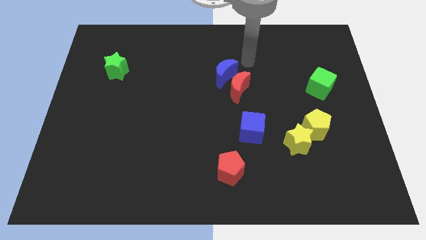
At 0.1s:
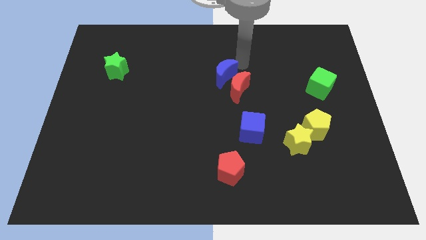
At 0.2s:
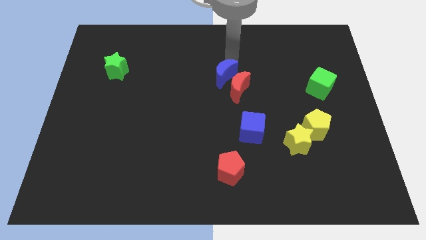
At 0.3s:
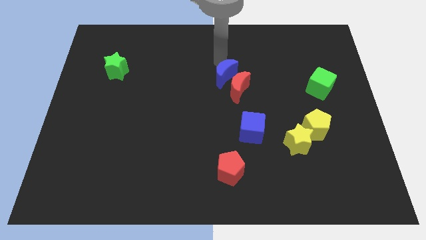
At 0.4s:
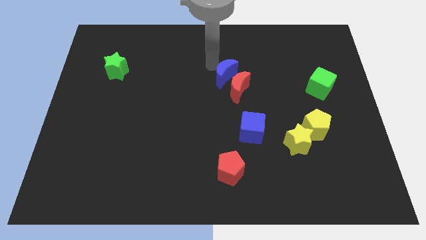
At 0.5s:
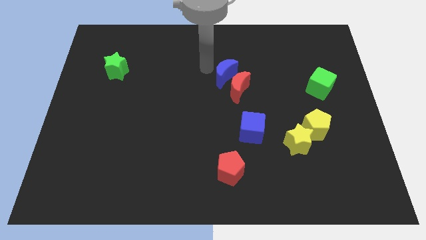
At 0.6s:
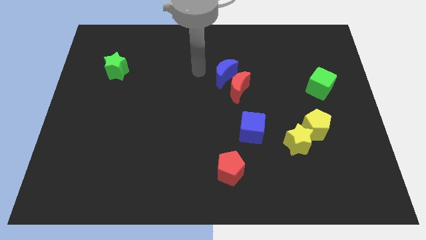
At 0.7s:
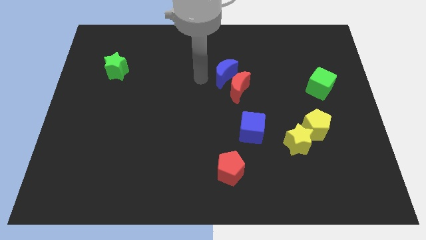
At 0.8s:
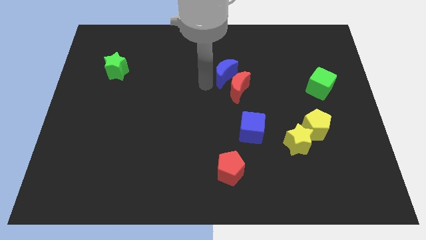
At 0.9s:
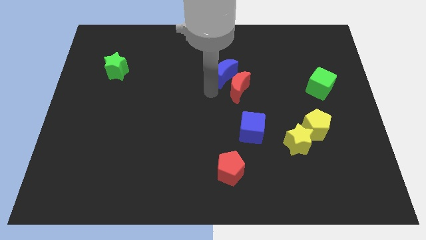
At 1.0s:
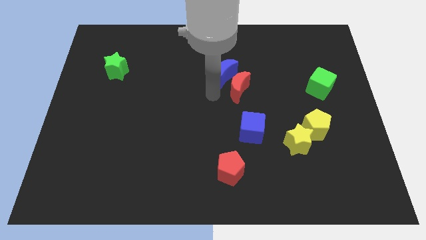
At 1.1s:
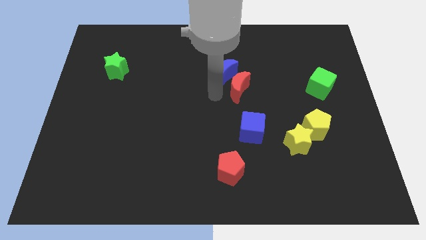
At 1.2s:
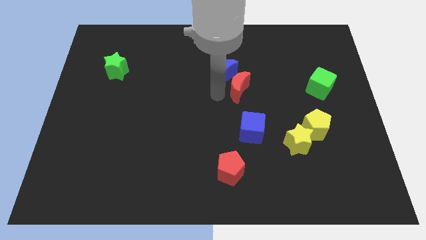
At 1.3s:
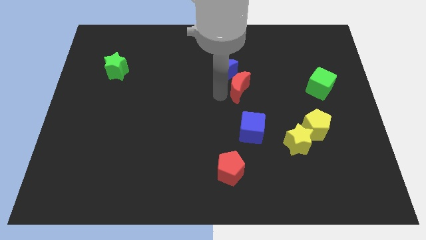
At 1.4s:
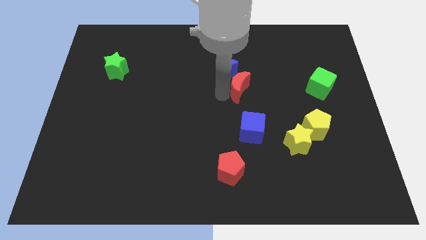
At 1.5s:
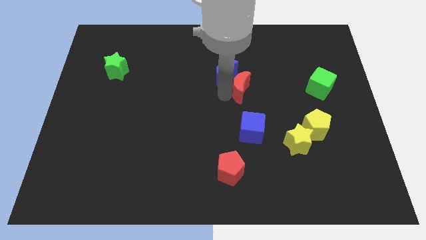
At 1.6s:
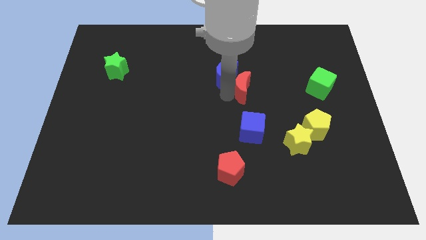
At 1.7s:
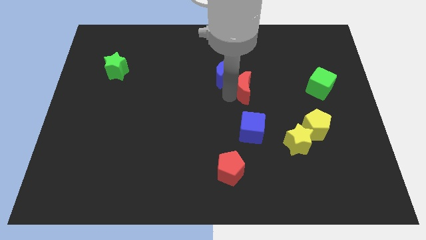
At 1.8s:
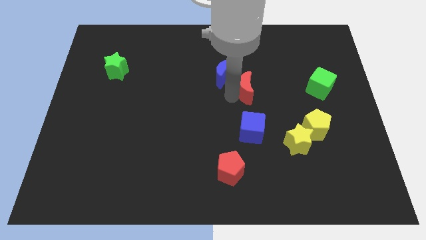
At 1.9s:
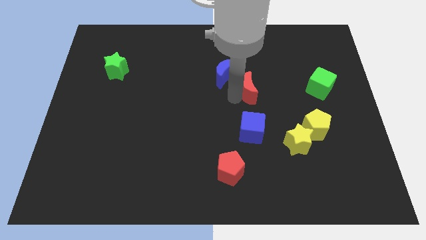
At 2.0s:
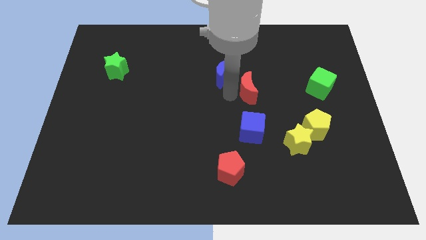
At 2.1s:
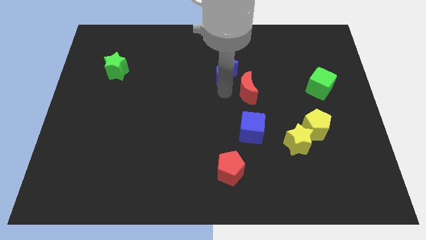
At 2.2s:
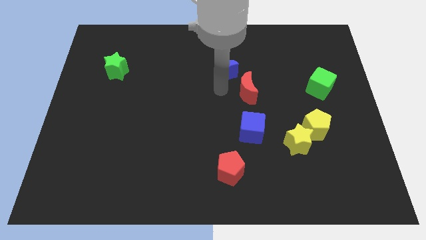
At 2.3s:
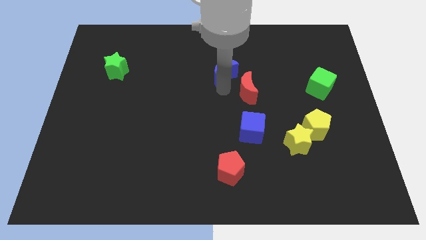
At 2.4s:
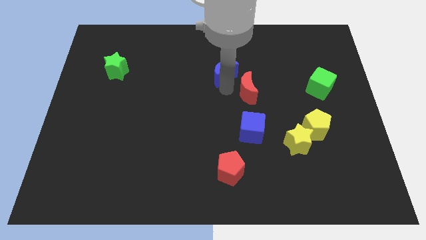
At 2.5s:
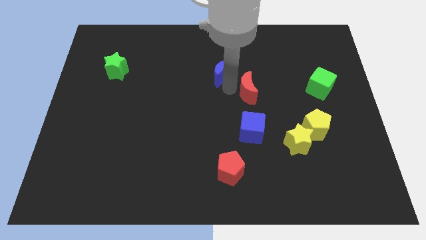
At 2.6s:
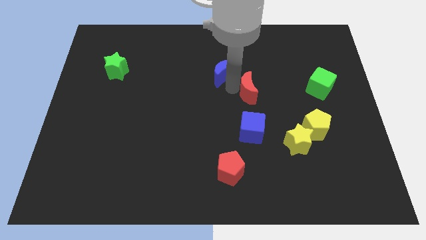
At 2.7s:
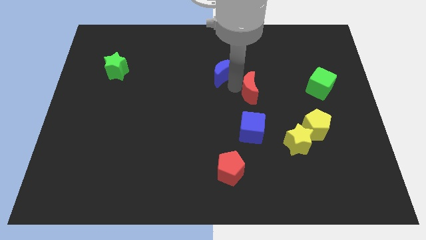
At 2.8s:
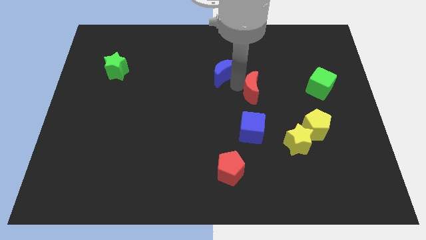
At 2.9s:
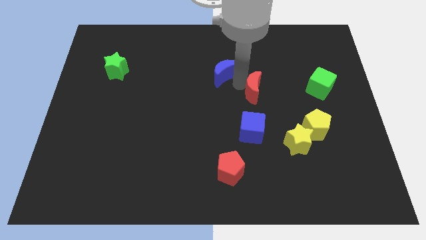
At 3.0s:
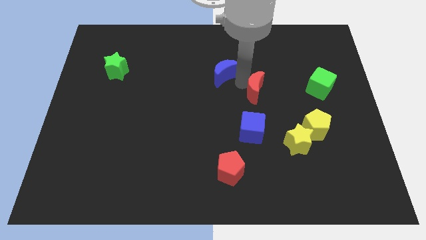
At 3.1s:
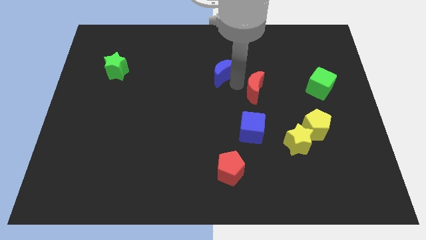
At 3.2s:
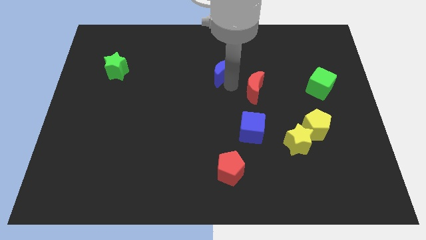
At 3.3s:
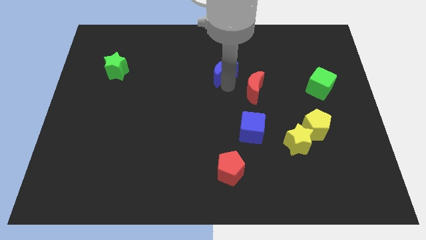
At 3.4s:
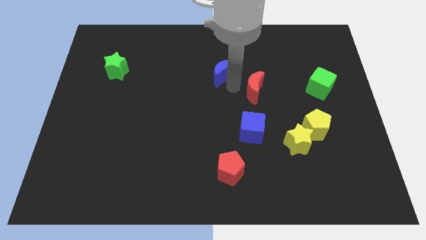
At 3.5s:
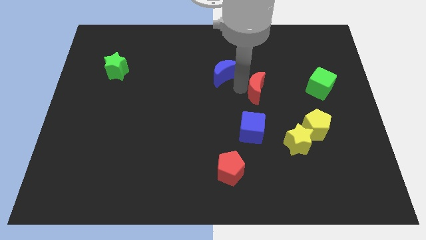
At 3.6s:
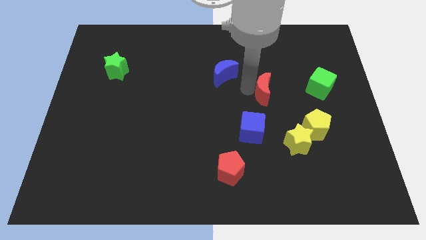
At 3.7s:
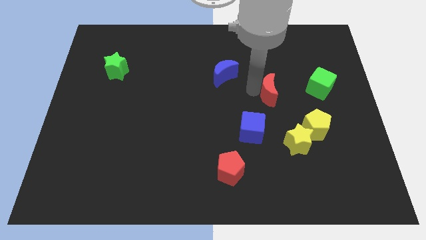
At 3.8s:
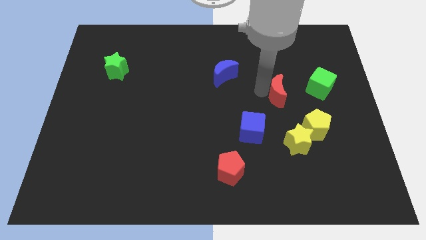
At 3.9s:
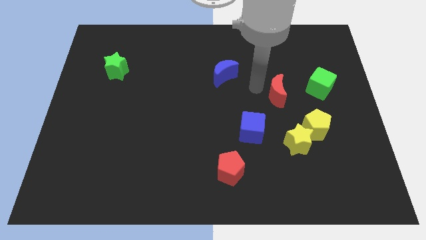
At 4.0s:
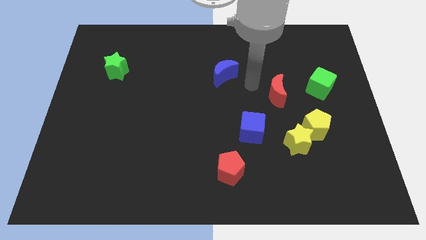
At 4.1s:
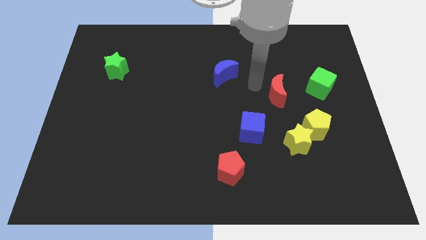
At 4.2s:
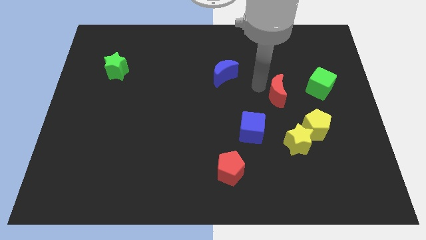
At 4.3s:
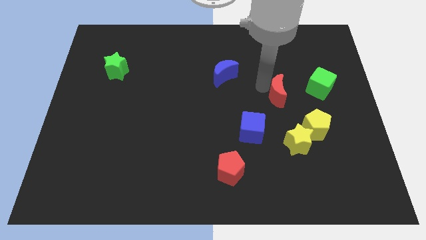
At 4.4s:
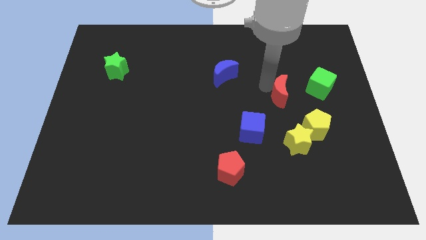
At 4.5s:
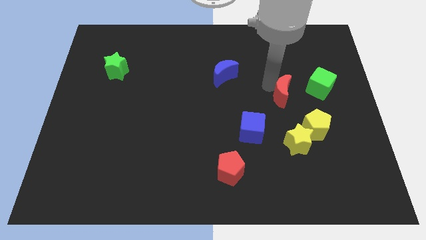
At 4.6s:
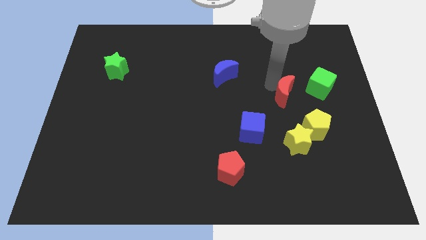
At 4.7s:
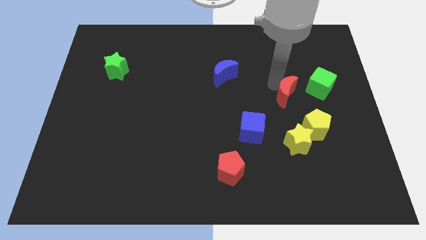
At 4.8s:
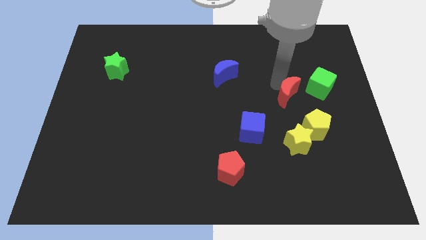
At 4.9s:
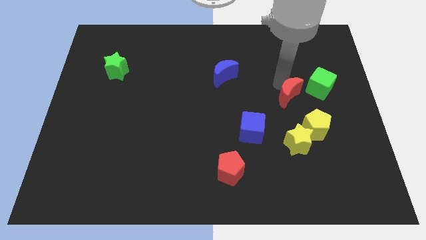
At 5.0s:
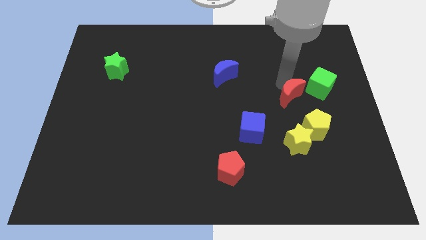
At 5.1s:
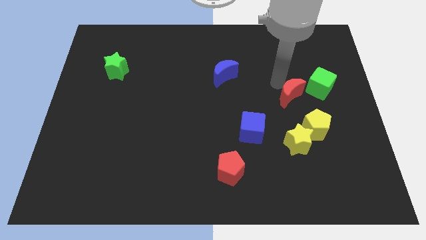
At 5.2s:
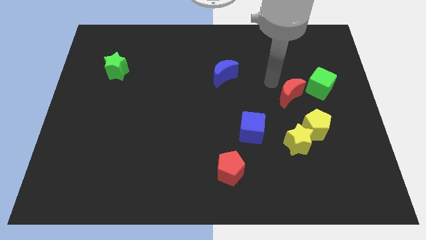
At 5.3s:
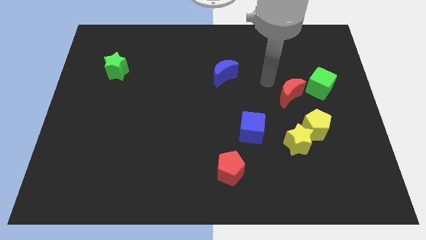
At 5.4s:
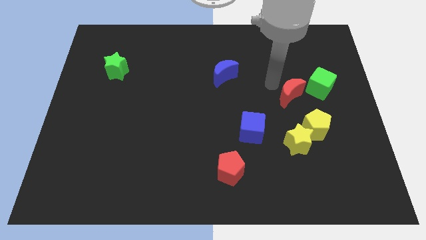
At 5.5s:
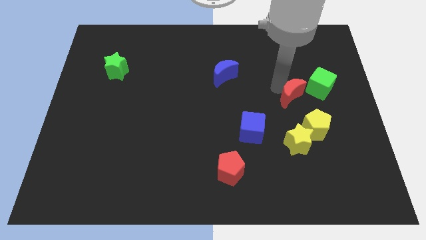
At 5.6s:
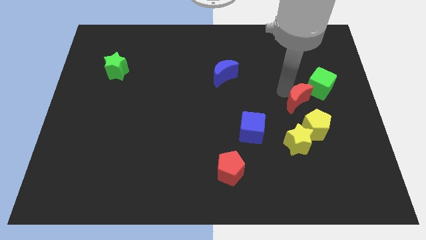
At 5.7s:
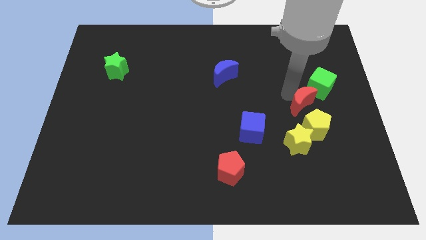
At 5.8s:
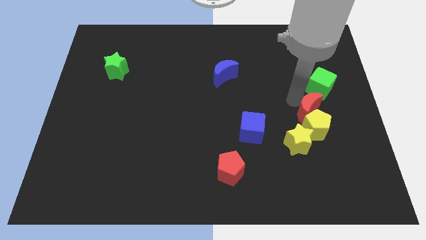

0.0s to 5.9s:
put the red moon to the top right side of the yellow pentagon

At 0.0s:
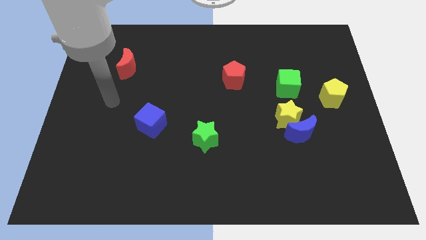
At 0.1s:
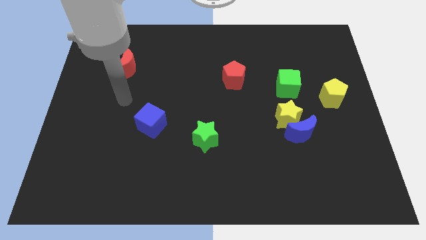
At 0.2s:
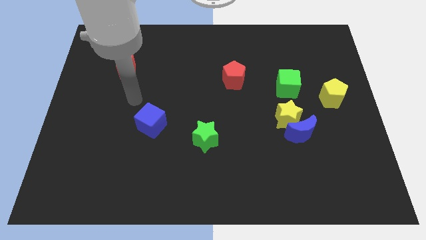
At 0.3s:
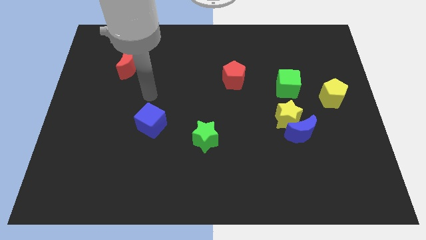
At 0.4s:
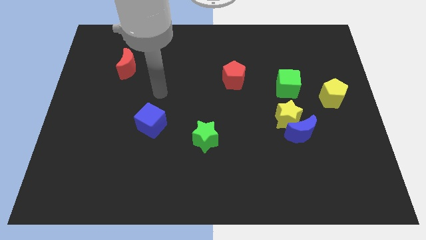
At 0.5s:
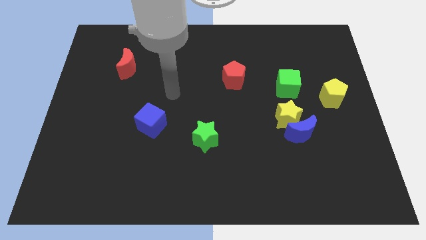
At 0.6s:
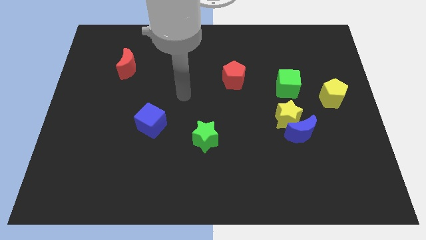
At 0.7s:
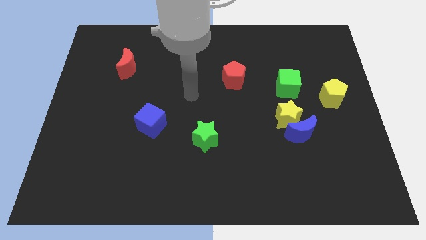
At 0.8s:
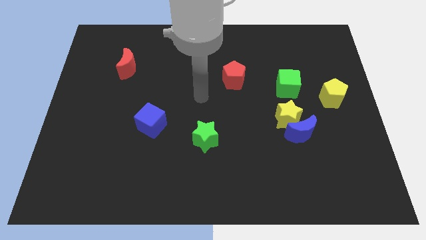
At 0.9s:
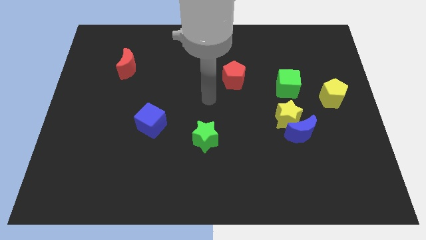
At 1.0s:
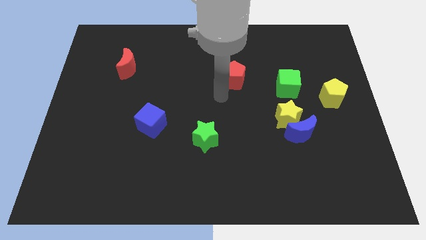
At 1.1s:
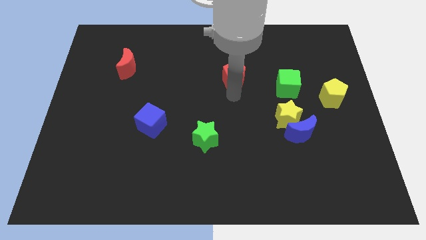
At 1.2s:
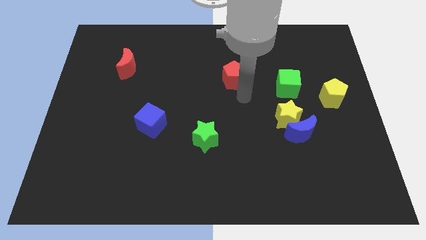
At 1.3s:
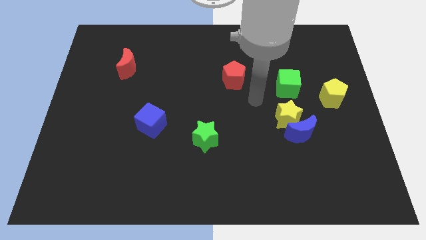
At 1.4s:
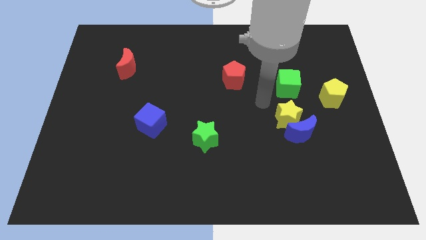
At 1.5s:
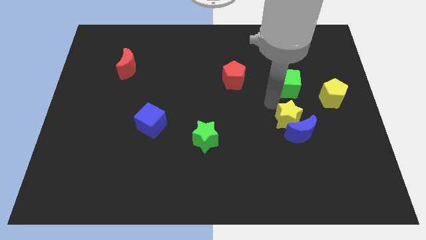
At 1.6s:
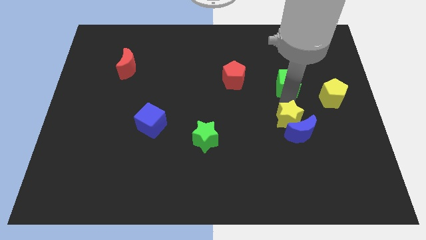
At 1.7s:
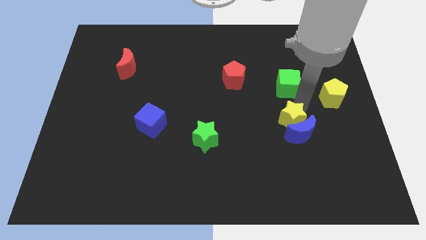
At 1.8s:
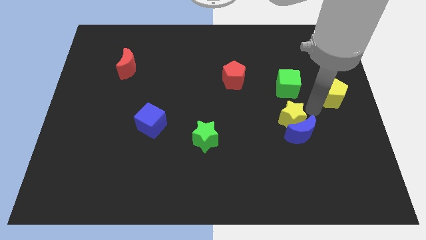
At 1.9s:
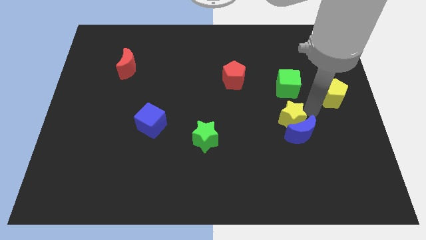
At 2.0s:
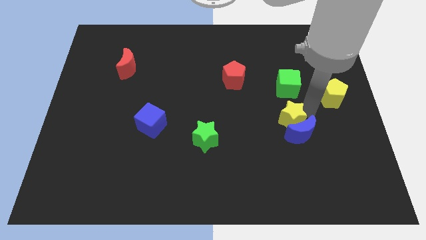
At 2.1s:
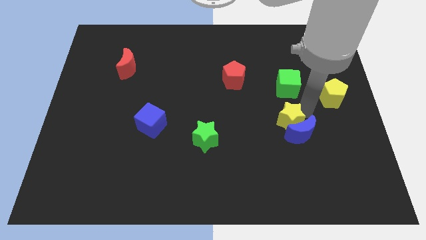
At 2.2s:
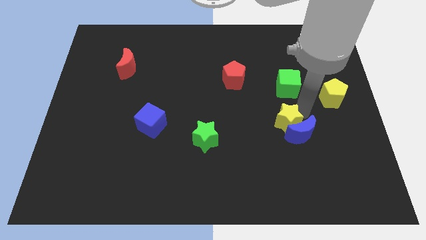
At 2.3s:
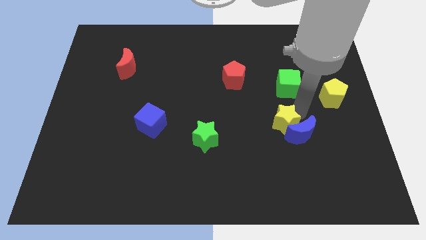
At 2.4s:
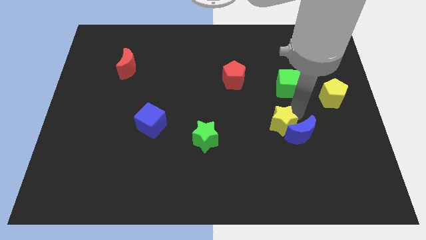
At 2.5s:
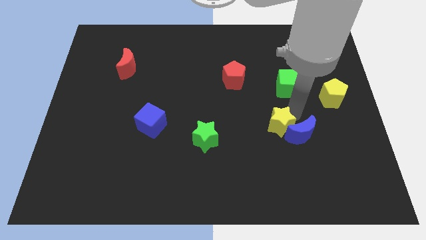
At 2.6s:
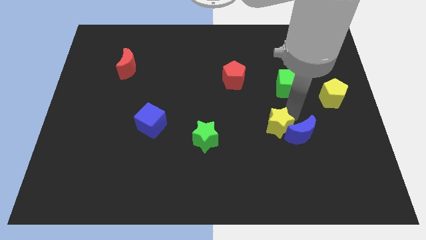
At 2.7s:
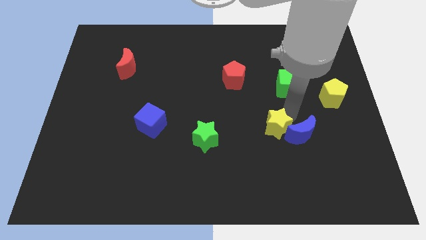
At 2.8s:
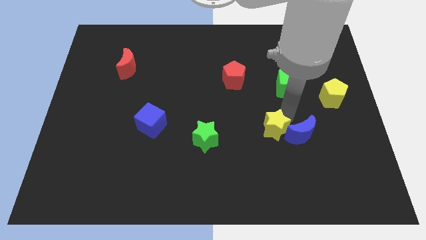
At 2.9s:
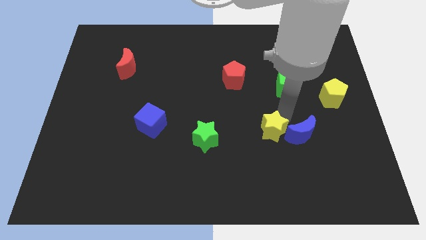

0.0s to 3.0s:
slide the yellow star to the right side of the green star

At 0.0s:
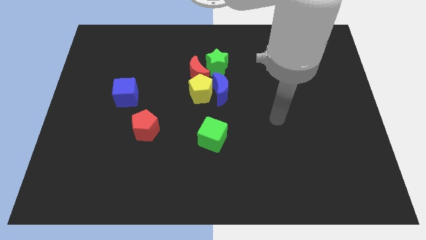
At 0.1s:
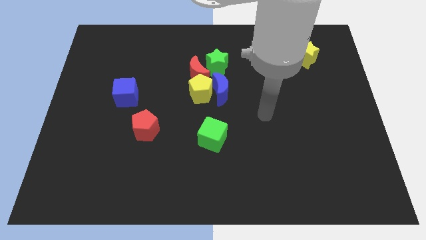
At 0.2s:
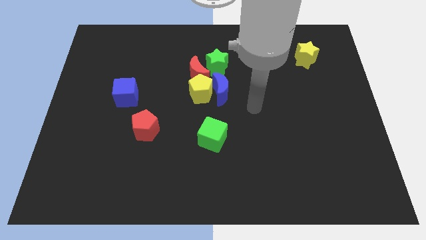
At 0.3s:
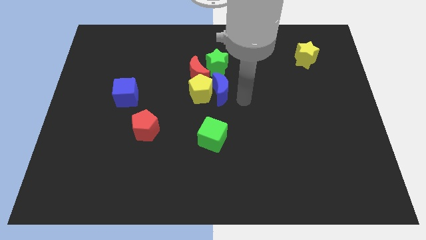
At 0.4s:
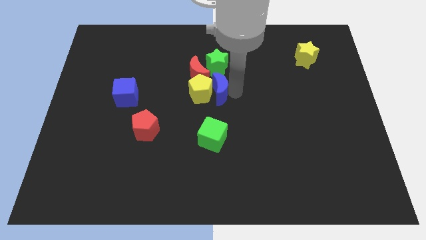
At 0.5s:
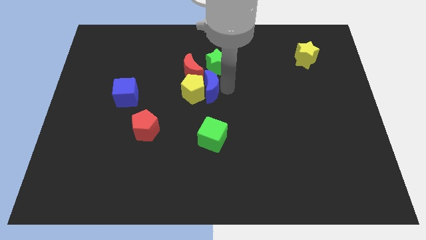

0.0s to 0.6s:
move the yellow pentagon just right of the blue cube
